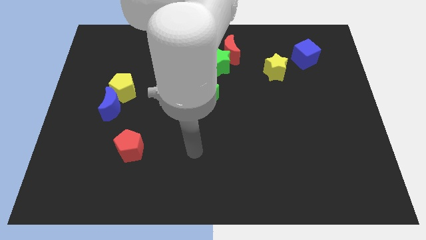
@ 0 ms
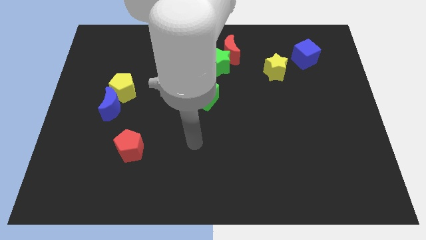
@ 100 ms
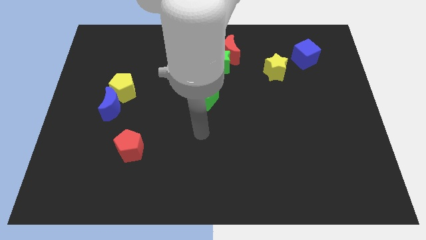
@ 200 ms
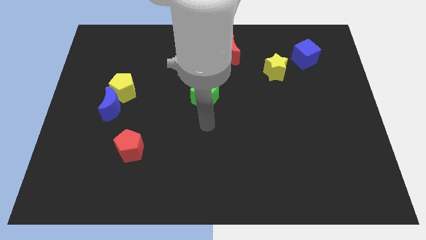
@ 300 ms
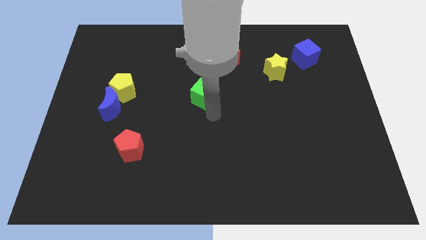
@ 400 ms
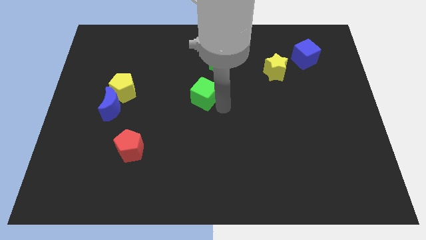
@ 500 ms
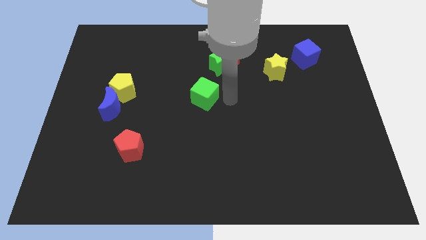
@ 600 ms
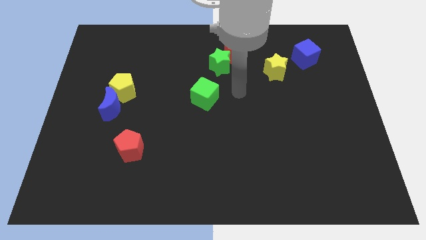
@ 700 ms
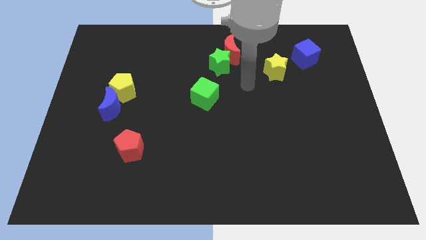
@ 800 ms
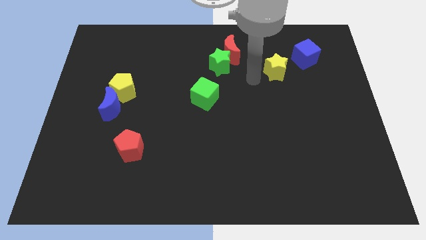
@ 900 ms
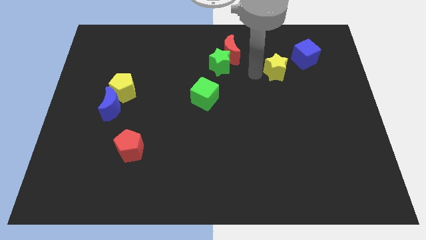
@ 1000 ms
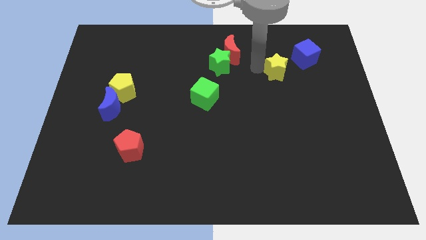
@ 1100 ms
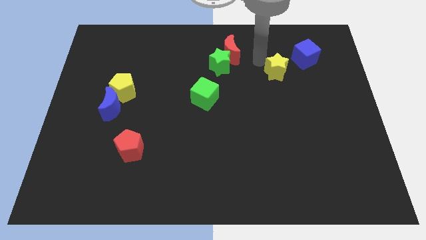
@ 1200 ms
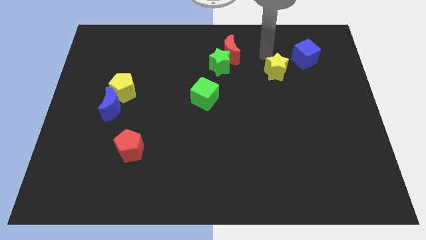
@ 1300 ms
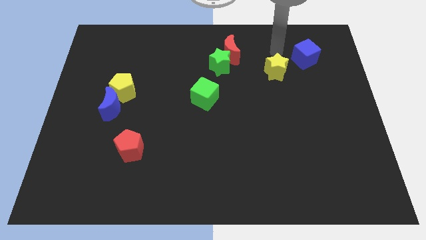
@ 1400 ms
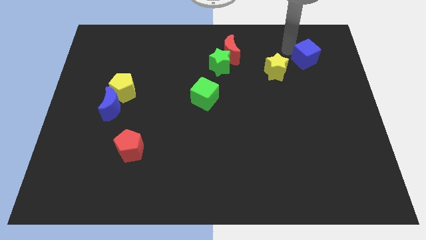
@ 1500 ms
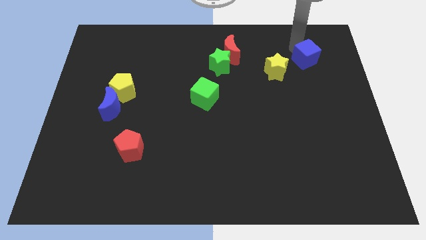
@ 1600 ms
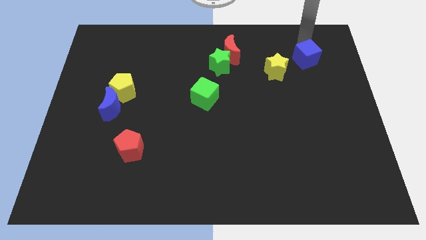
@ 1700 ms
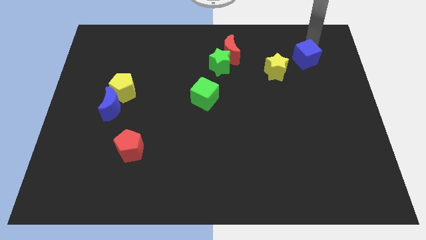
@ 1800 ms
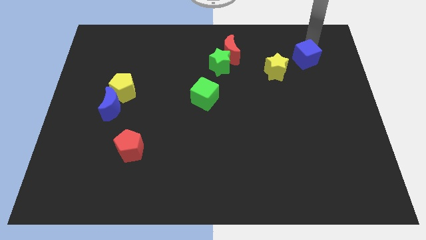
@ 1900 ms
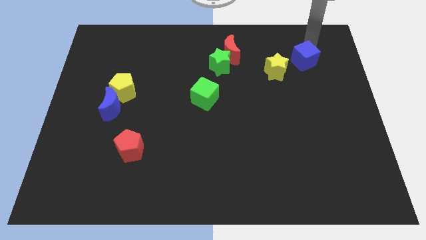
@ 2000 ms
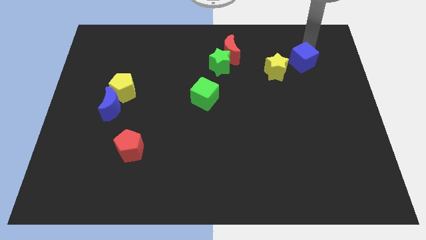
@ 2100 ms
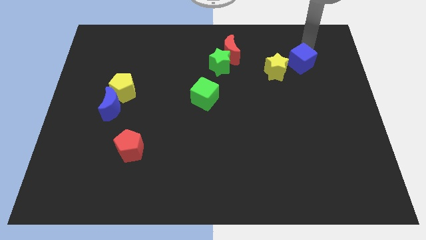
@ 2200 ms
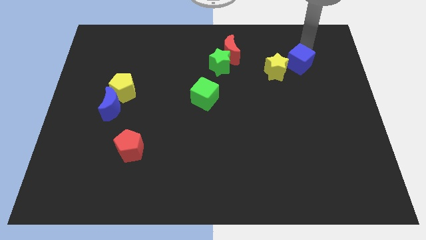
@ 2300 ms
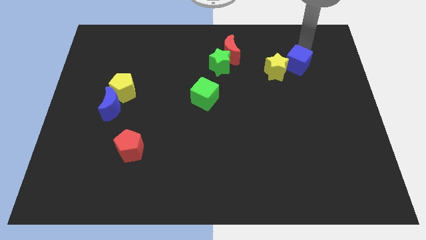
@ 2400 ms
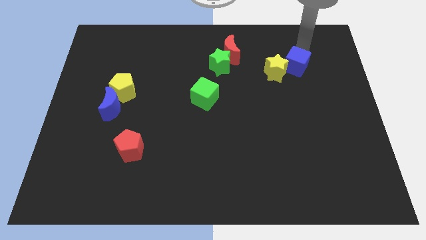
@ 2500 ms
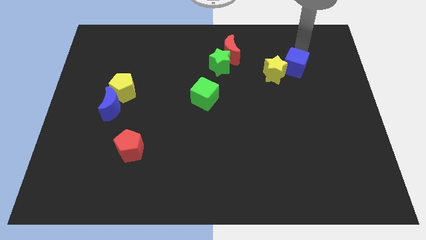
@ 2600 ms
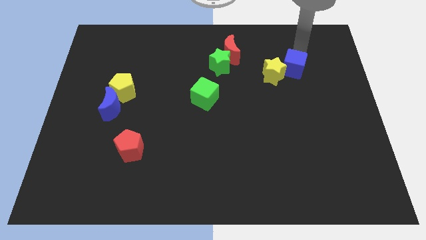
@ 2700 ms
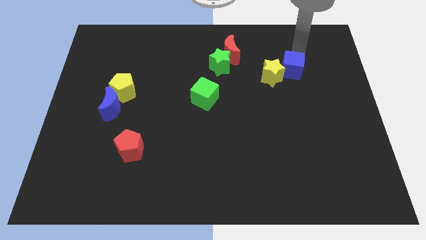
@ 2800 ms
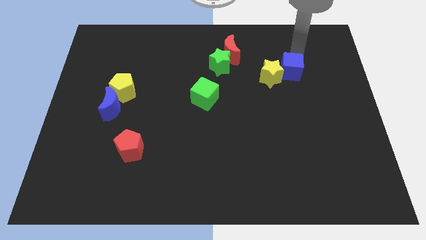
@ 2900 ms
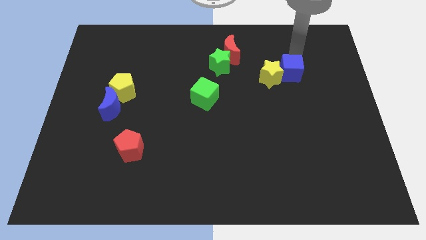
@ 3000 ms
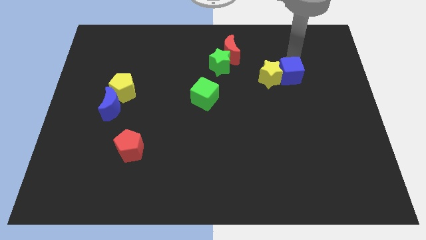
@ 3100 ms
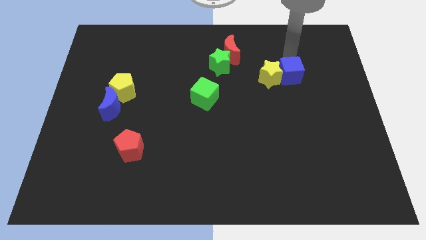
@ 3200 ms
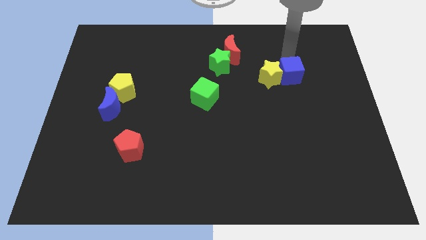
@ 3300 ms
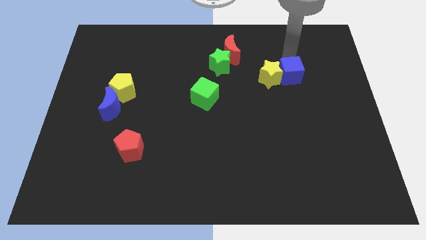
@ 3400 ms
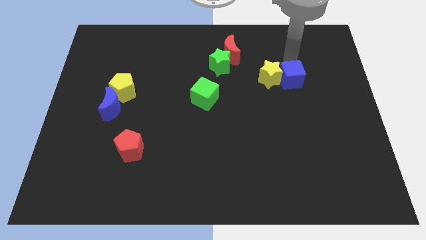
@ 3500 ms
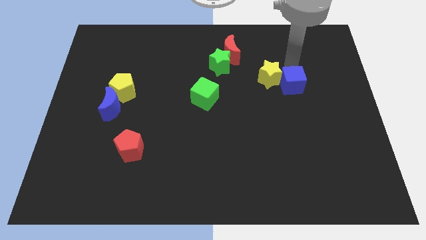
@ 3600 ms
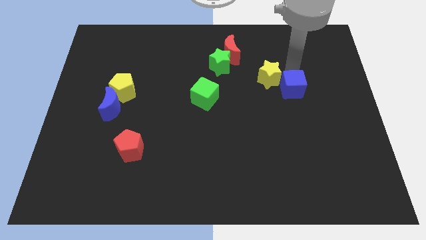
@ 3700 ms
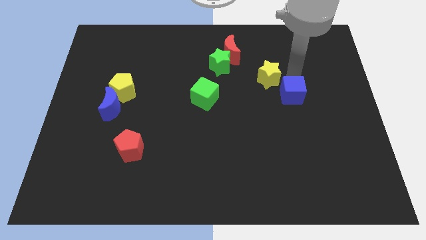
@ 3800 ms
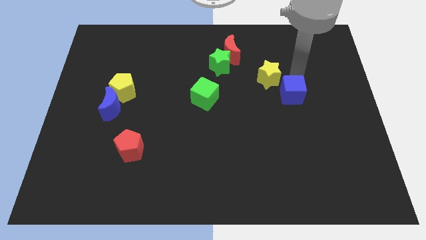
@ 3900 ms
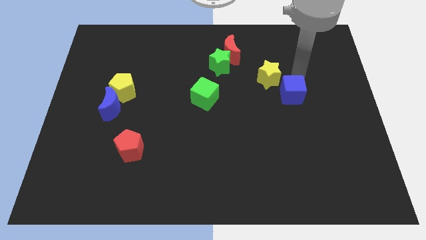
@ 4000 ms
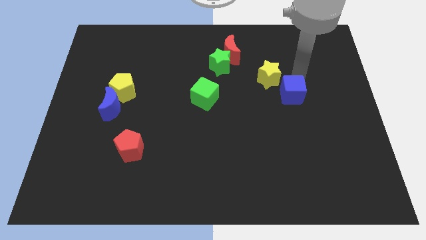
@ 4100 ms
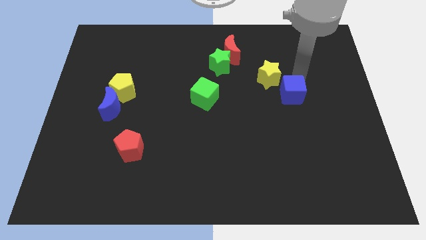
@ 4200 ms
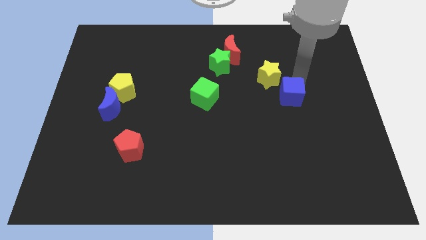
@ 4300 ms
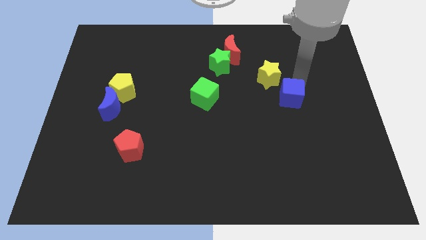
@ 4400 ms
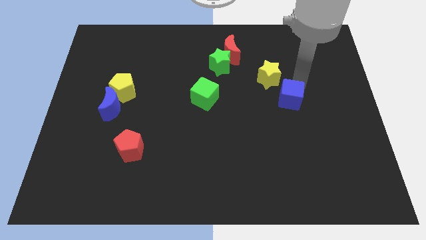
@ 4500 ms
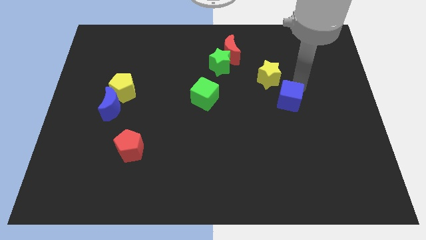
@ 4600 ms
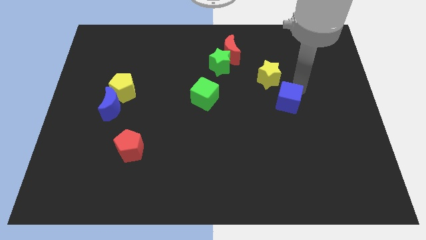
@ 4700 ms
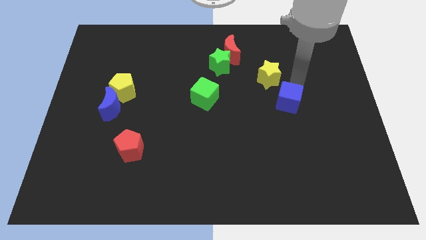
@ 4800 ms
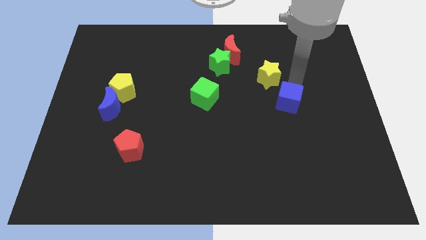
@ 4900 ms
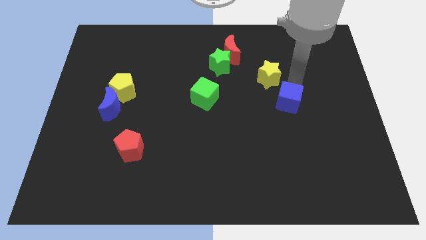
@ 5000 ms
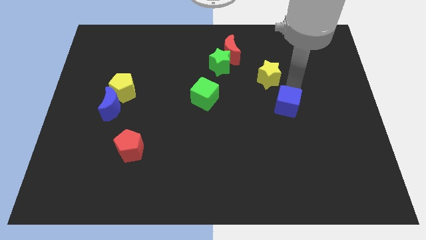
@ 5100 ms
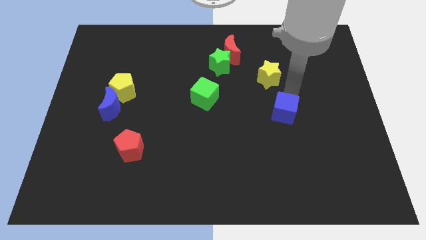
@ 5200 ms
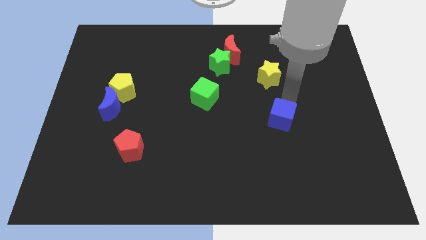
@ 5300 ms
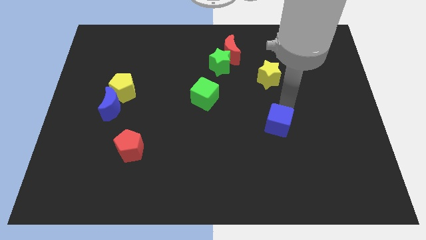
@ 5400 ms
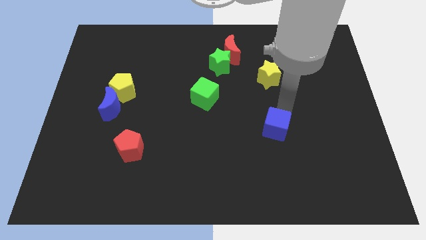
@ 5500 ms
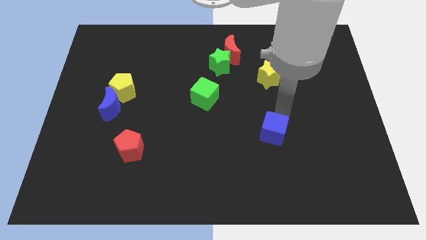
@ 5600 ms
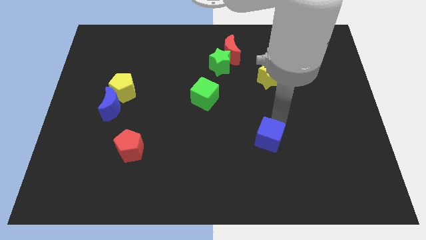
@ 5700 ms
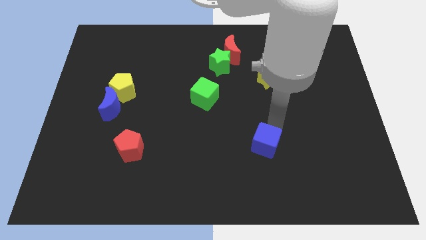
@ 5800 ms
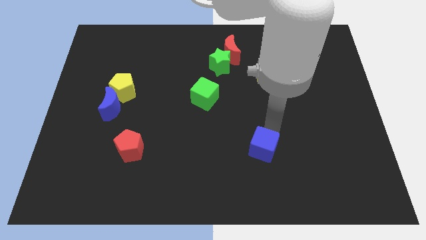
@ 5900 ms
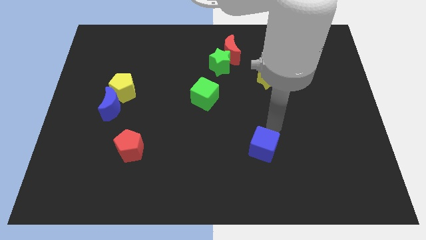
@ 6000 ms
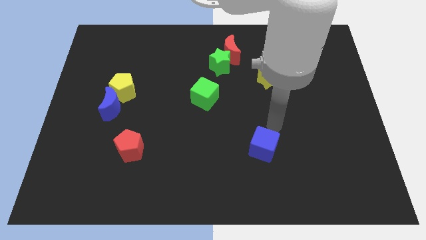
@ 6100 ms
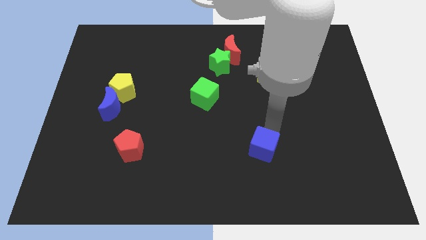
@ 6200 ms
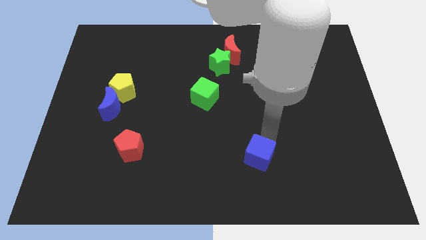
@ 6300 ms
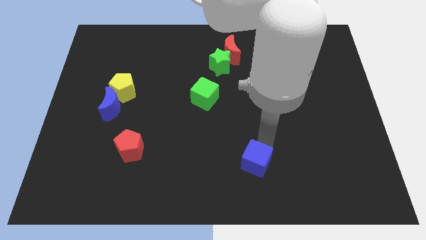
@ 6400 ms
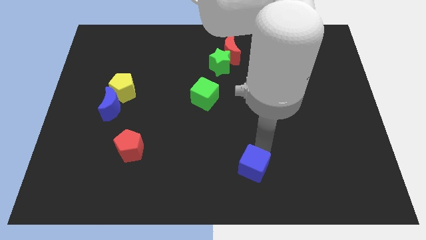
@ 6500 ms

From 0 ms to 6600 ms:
put the blue cube to the bottom

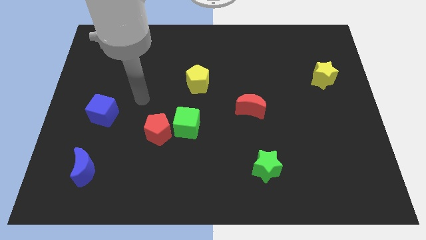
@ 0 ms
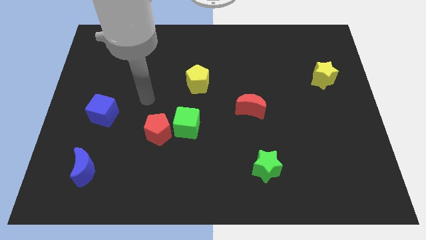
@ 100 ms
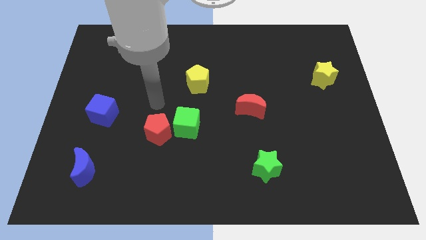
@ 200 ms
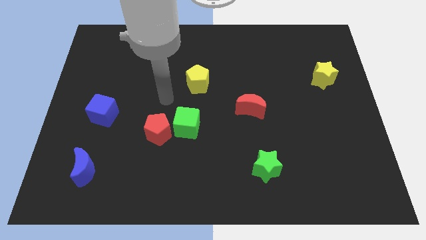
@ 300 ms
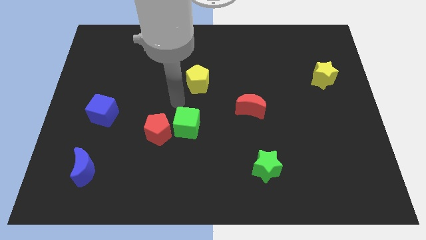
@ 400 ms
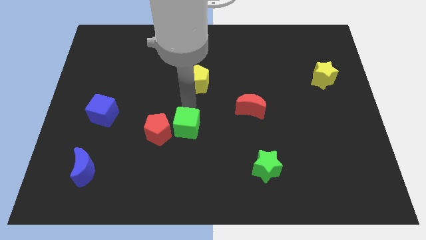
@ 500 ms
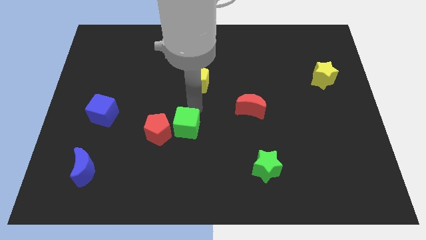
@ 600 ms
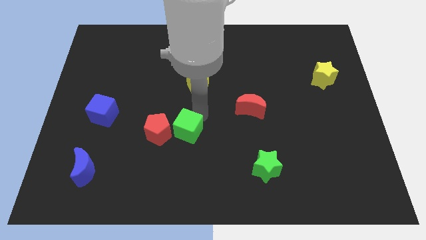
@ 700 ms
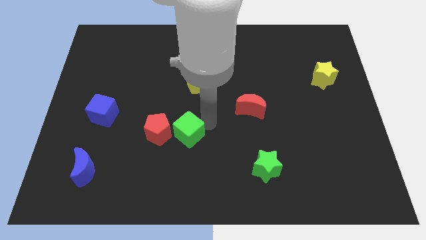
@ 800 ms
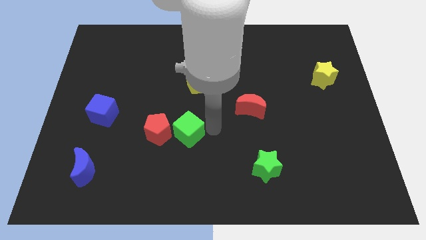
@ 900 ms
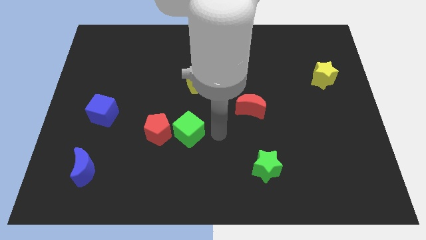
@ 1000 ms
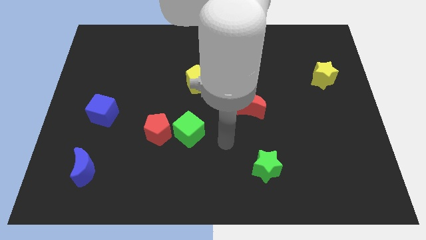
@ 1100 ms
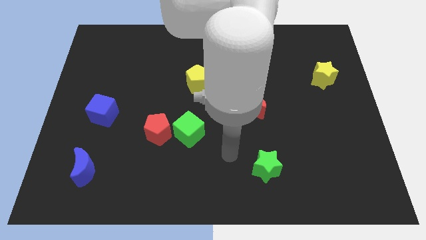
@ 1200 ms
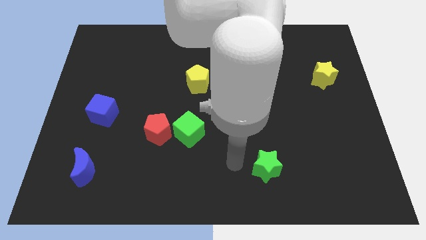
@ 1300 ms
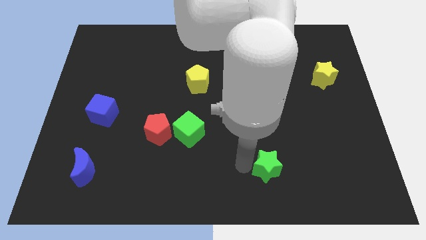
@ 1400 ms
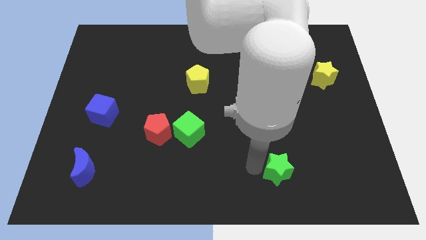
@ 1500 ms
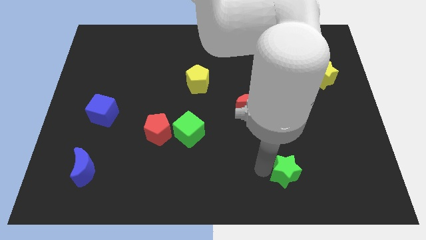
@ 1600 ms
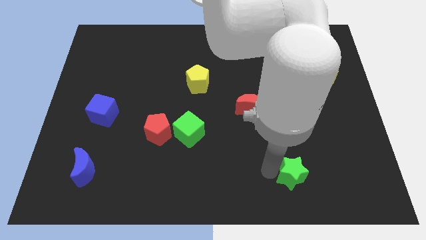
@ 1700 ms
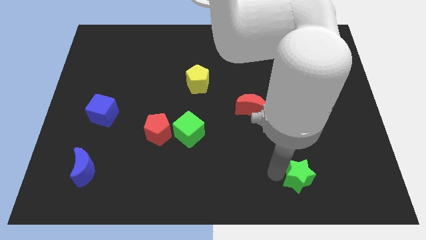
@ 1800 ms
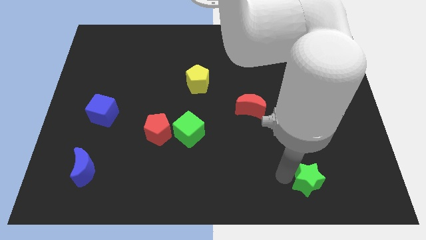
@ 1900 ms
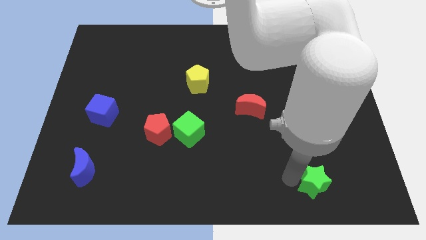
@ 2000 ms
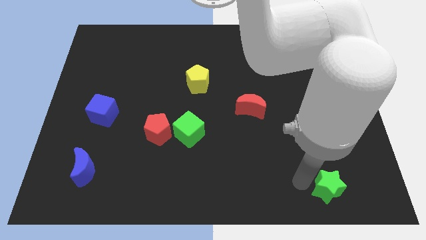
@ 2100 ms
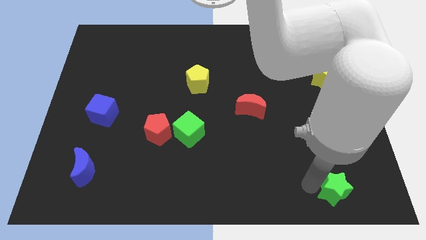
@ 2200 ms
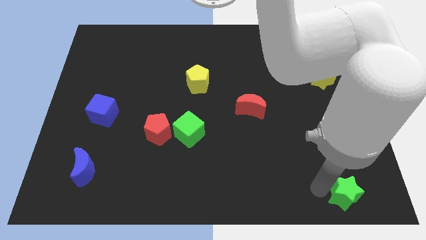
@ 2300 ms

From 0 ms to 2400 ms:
slide the green star to the bottom right corner
